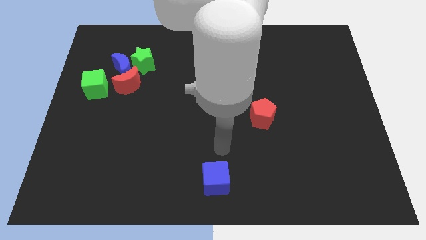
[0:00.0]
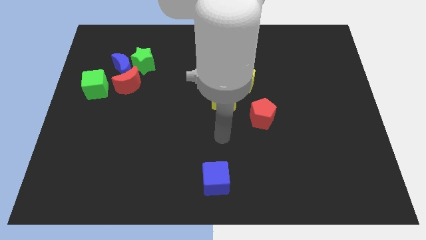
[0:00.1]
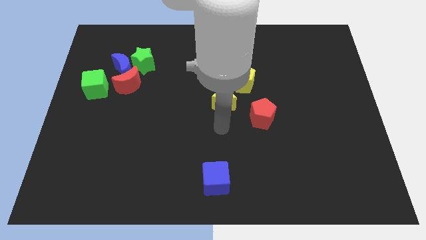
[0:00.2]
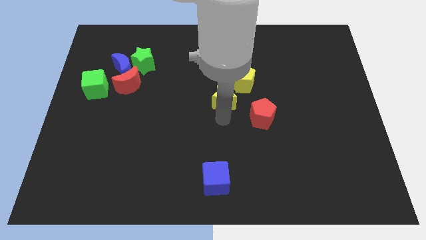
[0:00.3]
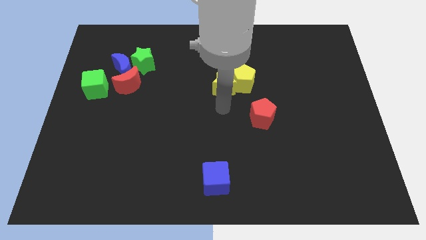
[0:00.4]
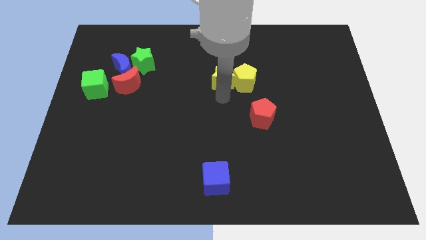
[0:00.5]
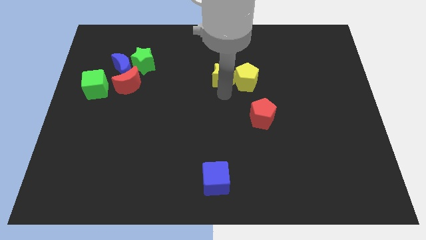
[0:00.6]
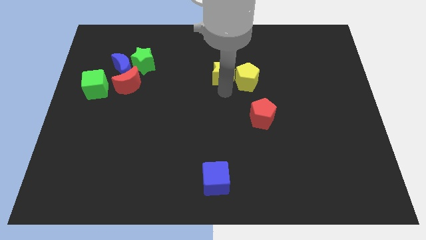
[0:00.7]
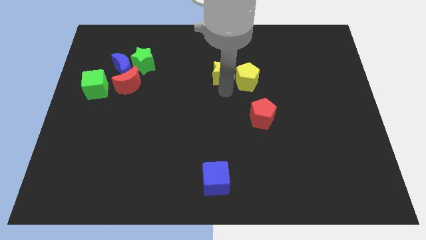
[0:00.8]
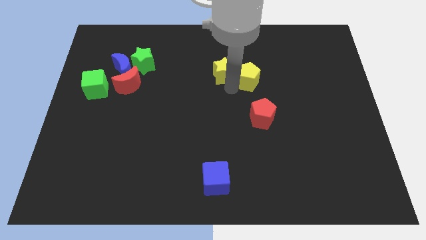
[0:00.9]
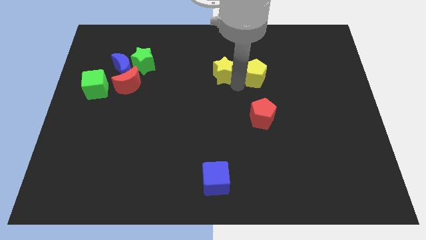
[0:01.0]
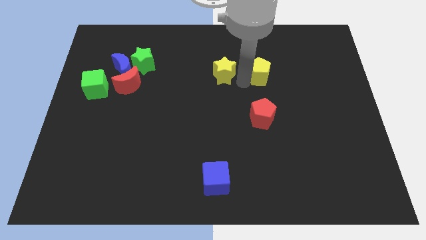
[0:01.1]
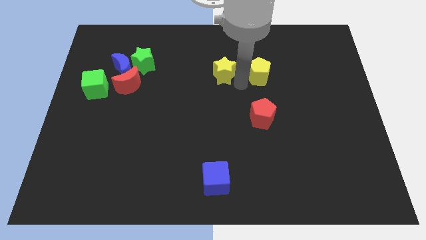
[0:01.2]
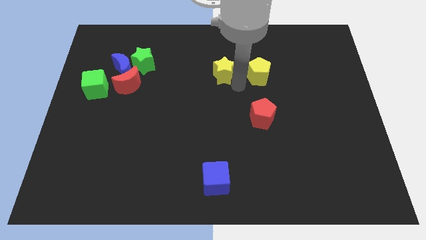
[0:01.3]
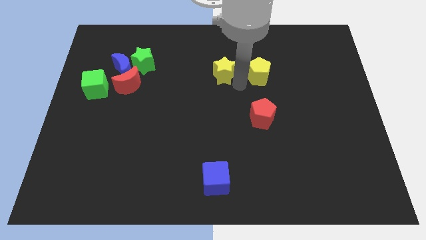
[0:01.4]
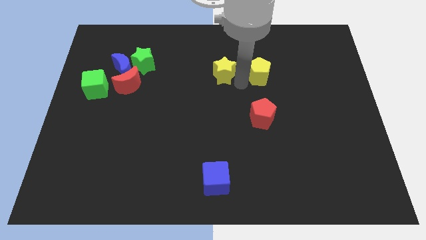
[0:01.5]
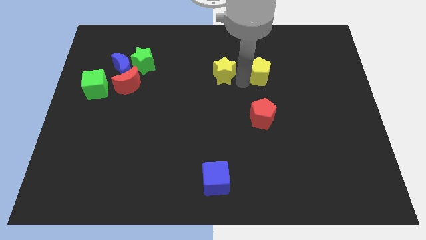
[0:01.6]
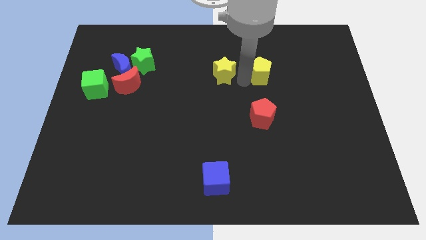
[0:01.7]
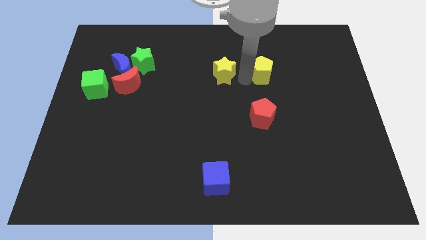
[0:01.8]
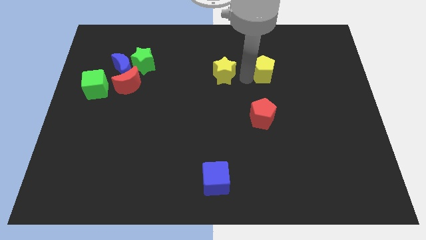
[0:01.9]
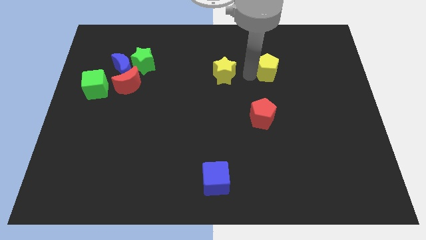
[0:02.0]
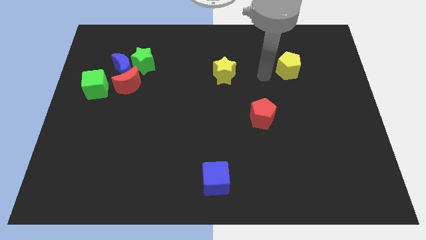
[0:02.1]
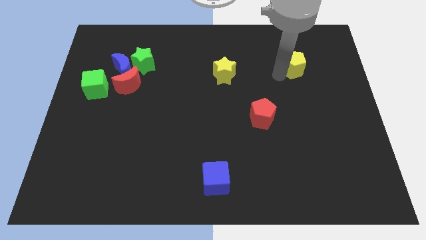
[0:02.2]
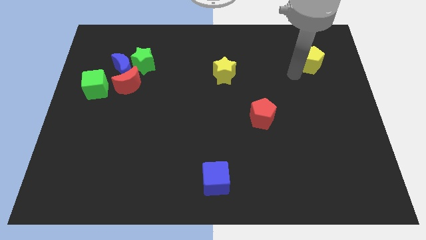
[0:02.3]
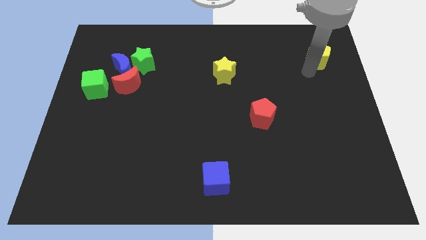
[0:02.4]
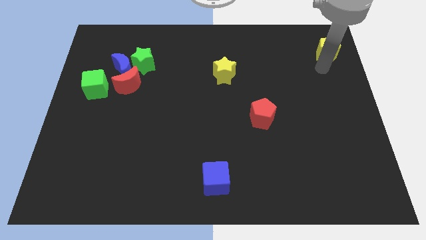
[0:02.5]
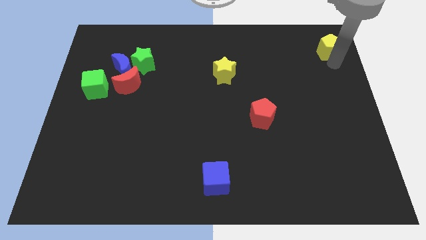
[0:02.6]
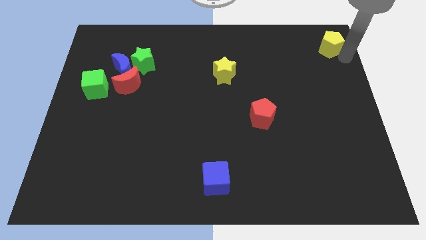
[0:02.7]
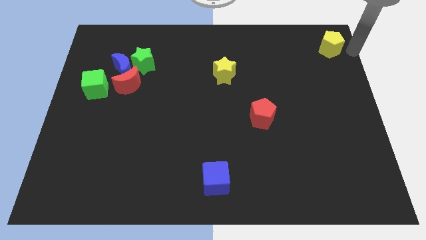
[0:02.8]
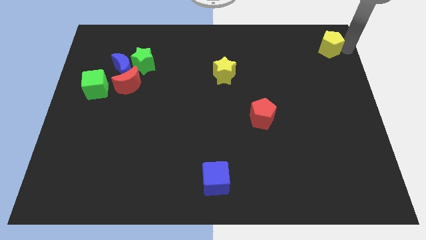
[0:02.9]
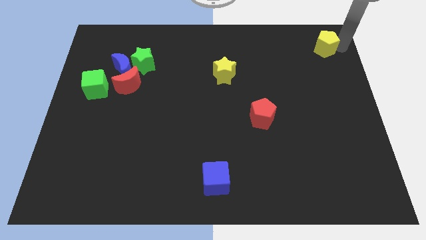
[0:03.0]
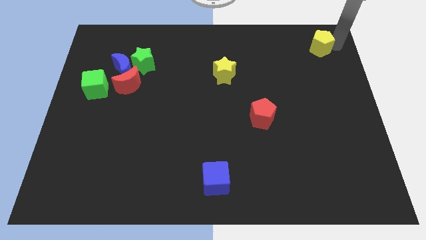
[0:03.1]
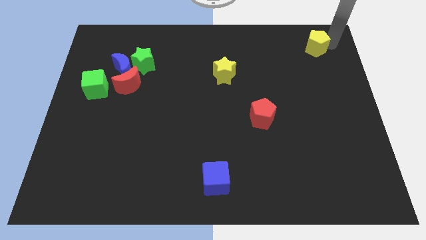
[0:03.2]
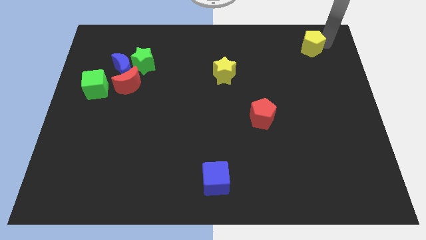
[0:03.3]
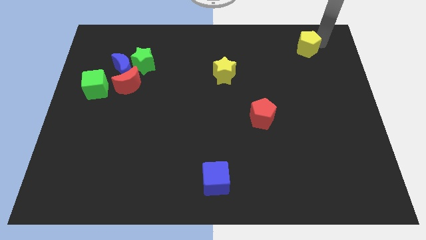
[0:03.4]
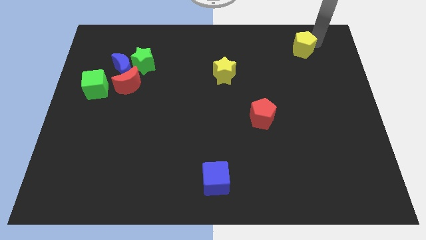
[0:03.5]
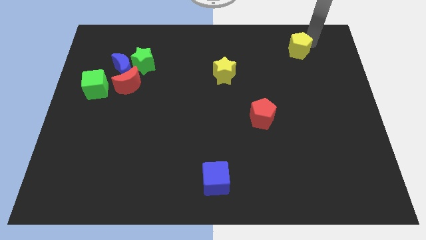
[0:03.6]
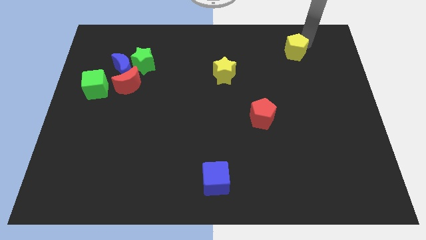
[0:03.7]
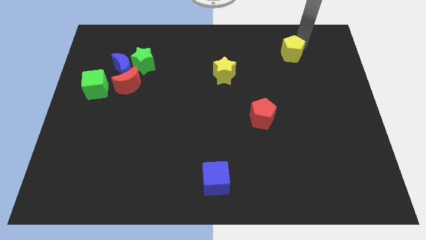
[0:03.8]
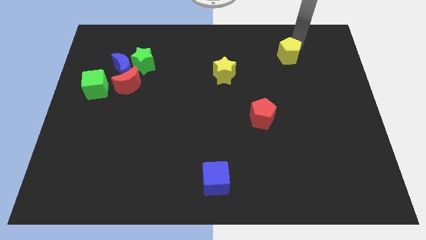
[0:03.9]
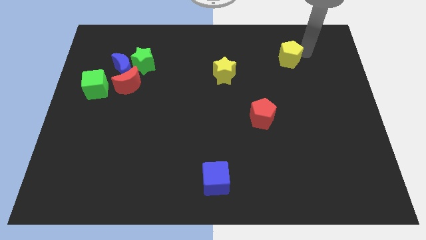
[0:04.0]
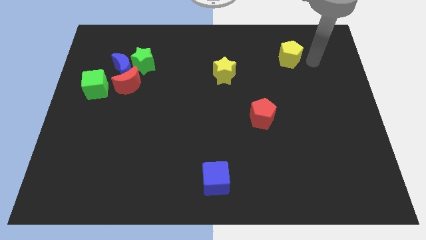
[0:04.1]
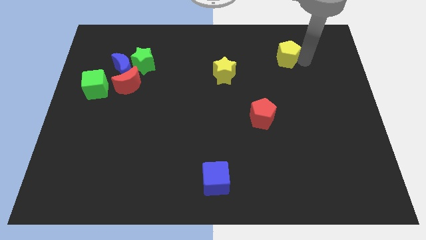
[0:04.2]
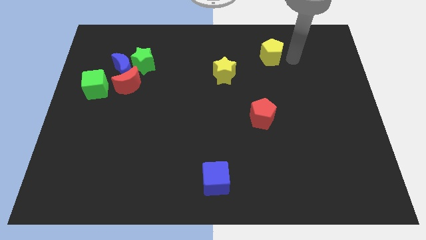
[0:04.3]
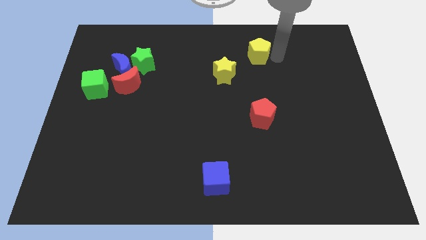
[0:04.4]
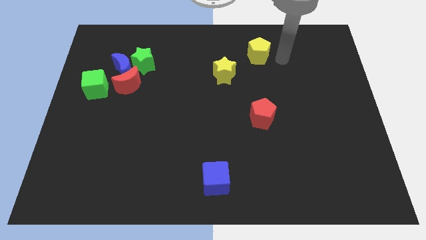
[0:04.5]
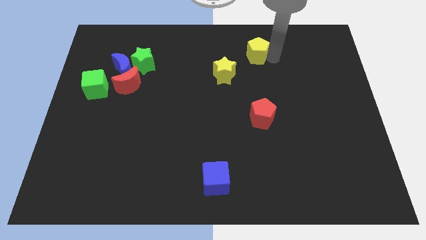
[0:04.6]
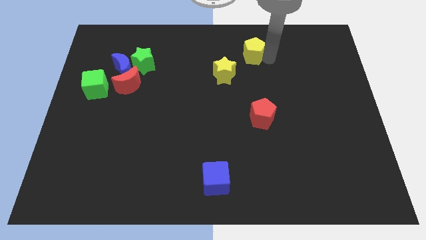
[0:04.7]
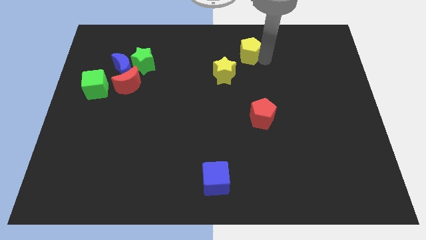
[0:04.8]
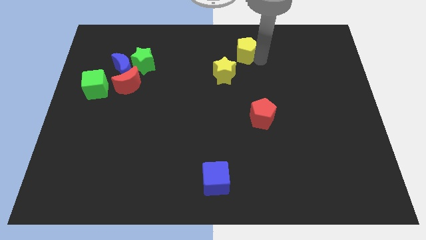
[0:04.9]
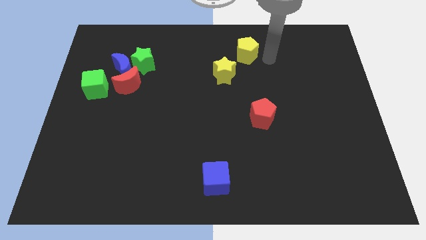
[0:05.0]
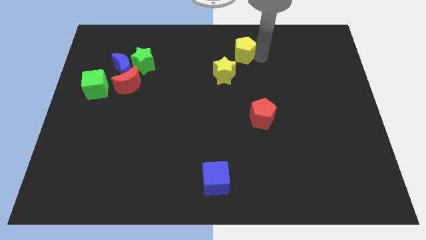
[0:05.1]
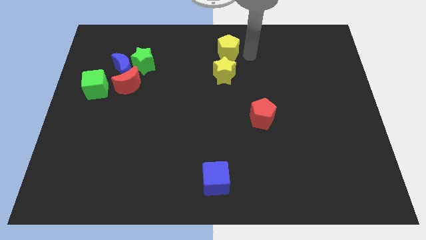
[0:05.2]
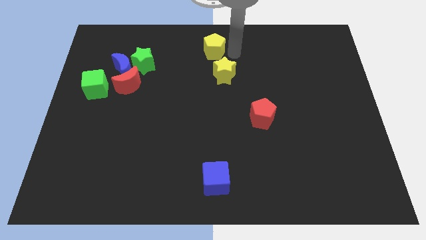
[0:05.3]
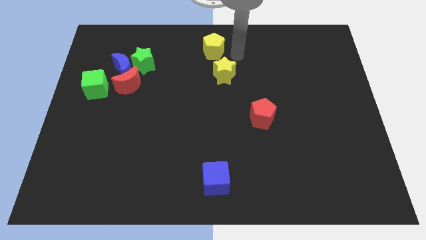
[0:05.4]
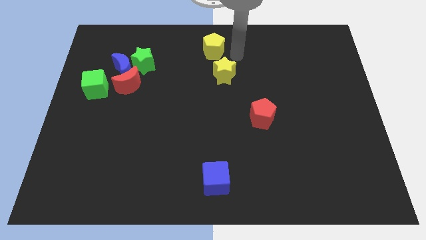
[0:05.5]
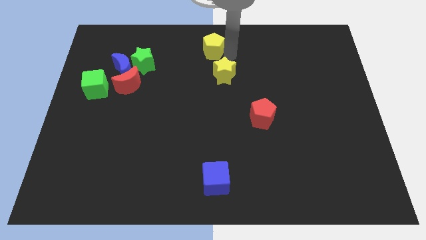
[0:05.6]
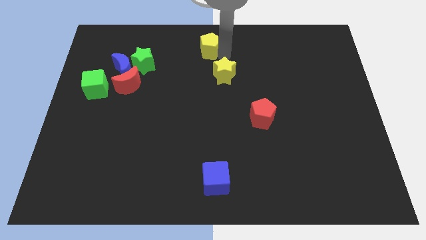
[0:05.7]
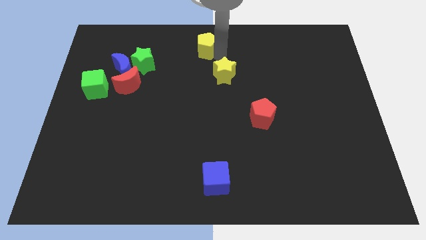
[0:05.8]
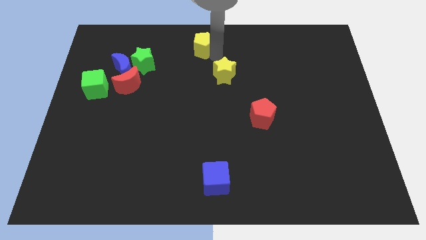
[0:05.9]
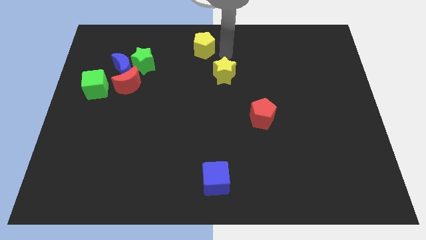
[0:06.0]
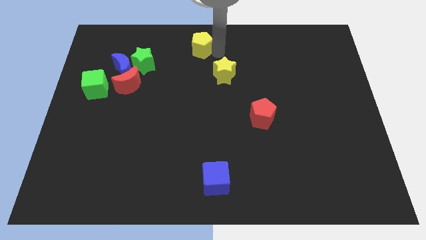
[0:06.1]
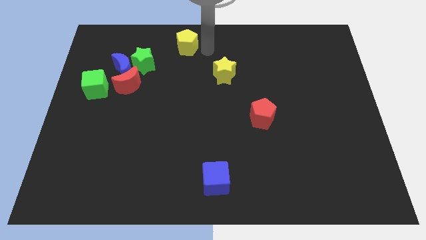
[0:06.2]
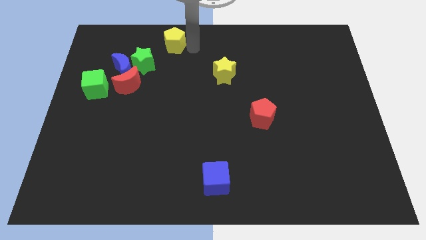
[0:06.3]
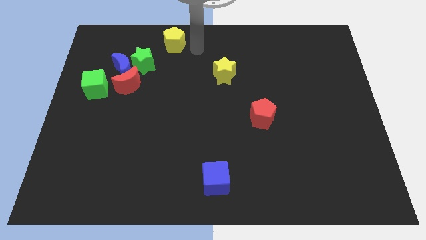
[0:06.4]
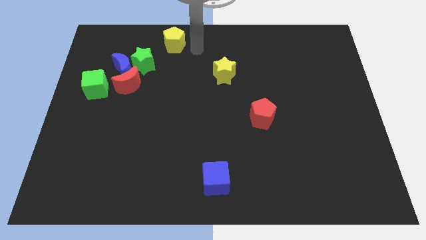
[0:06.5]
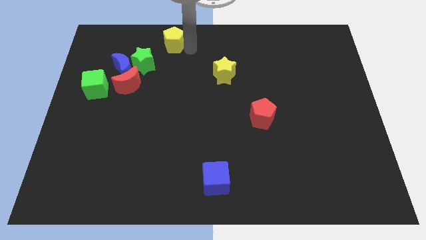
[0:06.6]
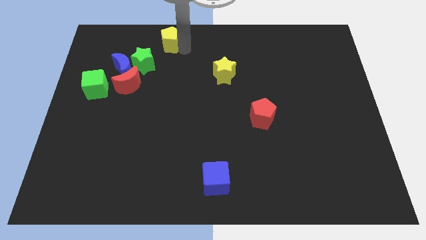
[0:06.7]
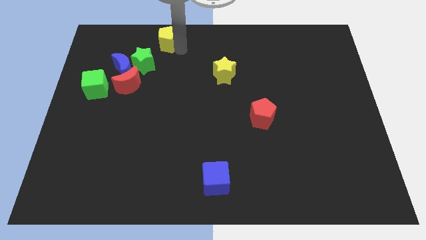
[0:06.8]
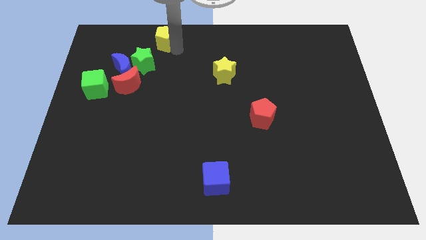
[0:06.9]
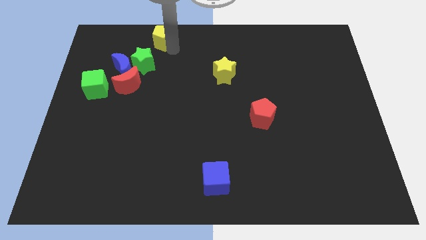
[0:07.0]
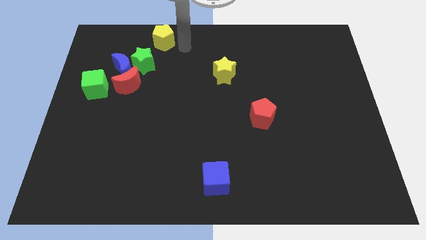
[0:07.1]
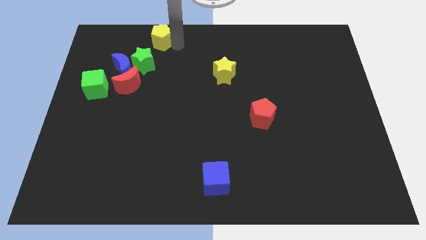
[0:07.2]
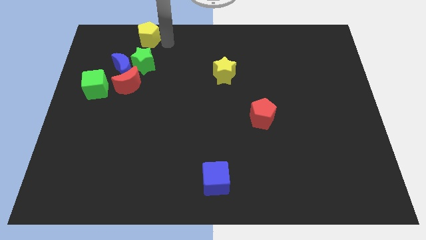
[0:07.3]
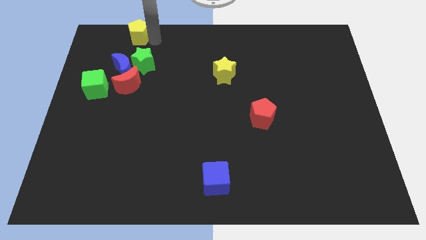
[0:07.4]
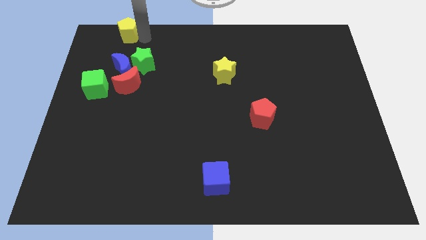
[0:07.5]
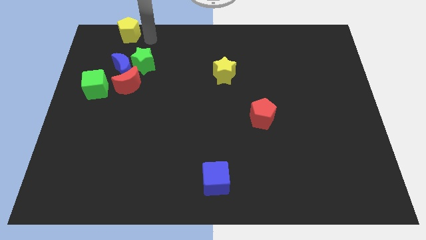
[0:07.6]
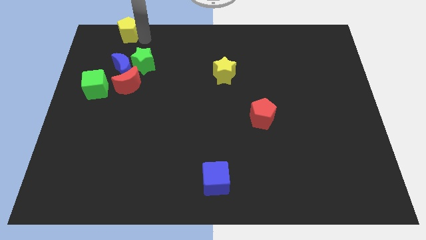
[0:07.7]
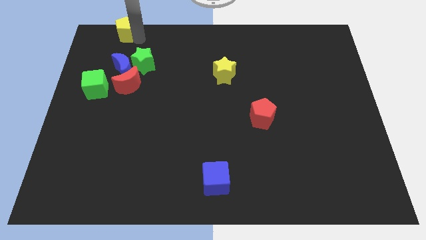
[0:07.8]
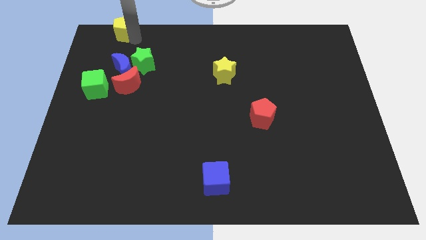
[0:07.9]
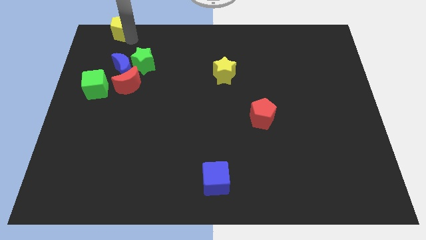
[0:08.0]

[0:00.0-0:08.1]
slide the yellow pentagon to the top left of the board
